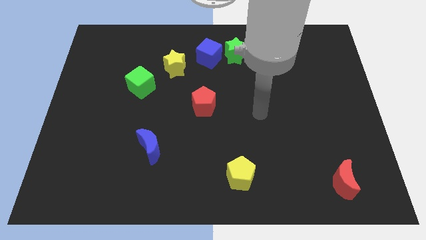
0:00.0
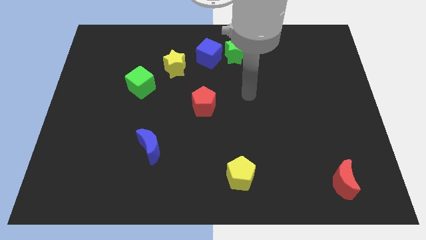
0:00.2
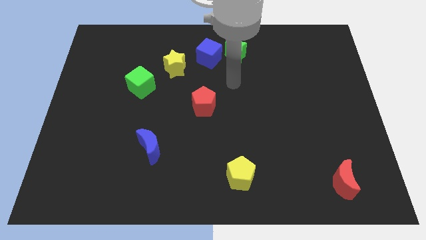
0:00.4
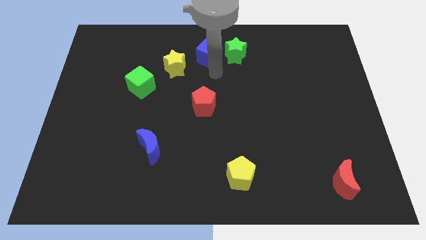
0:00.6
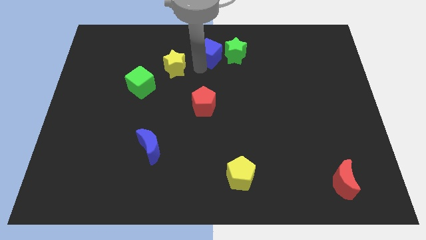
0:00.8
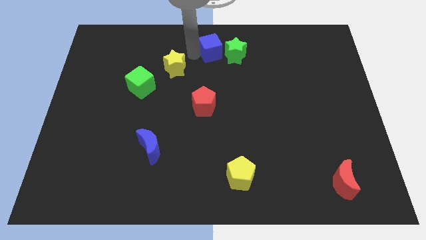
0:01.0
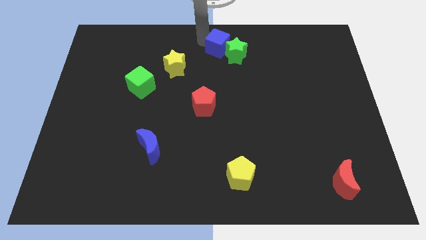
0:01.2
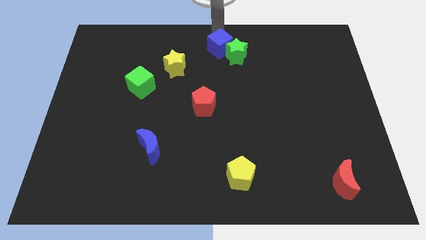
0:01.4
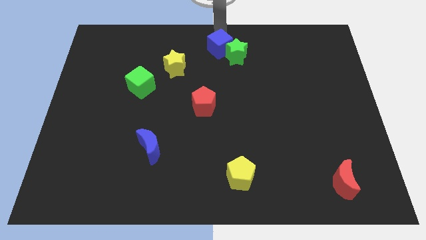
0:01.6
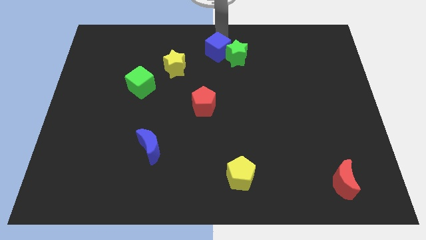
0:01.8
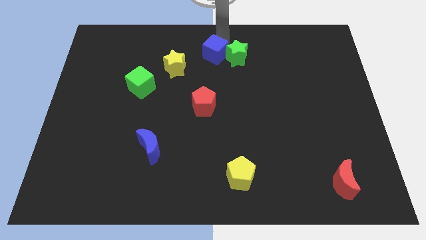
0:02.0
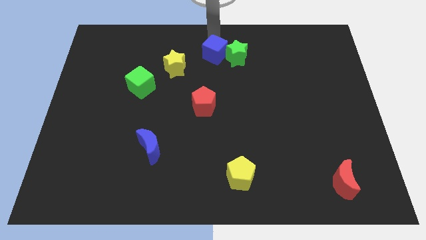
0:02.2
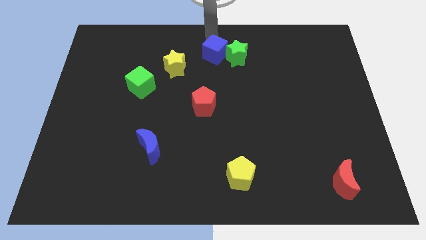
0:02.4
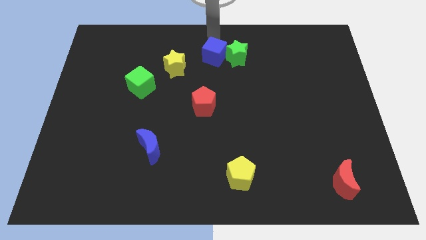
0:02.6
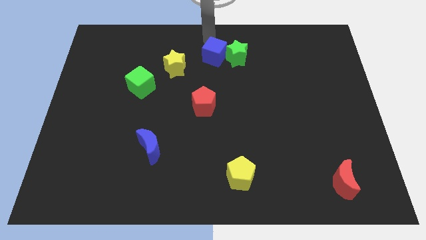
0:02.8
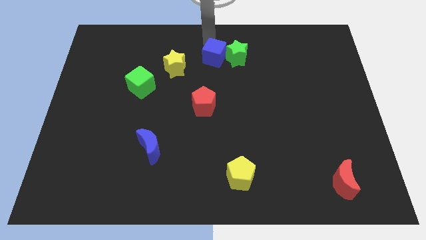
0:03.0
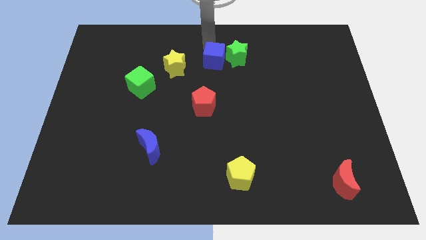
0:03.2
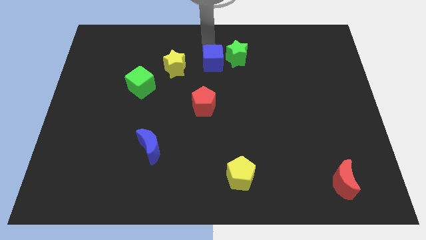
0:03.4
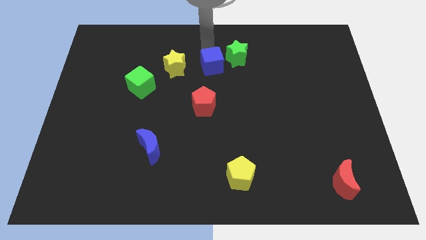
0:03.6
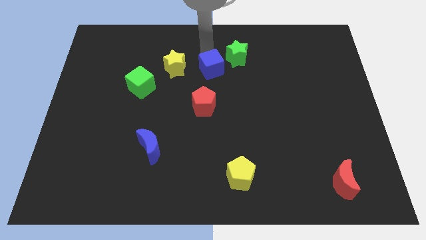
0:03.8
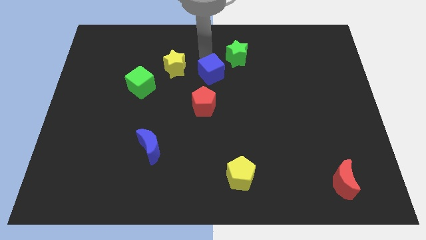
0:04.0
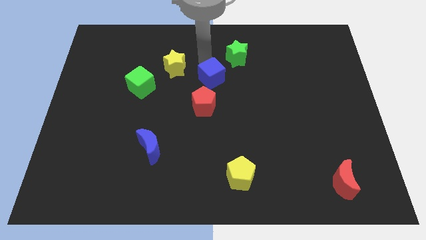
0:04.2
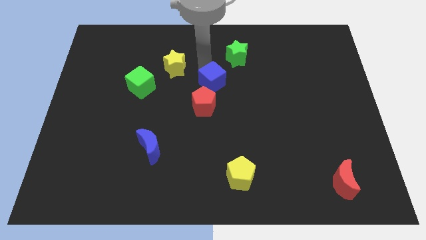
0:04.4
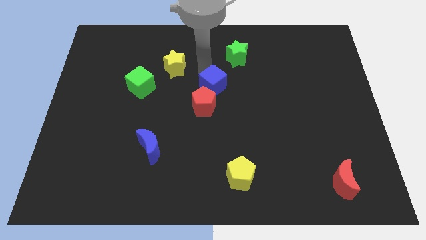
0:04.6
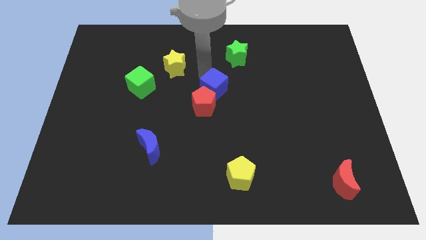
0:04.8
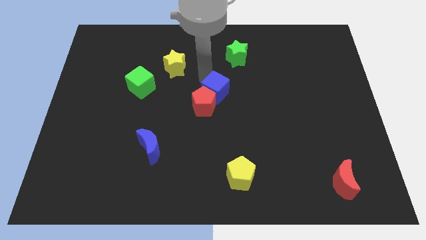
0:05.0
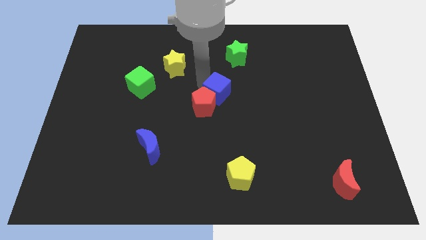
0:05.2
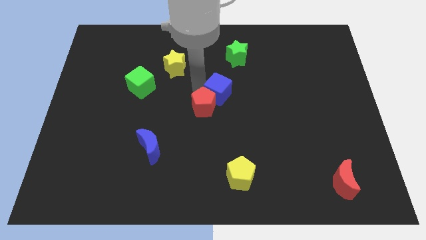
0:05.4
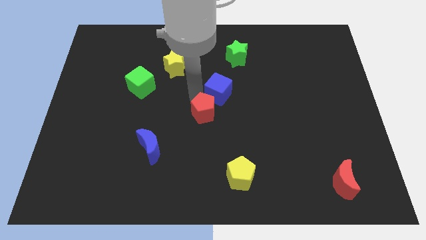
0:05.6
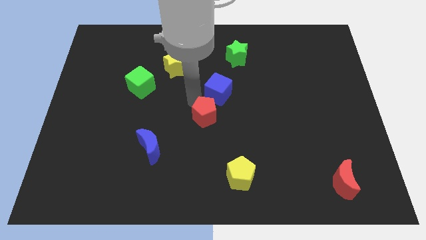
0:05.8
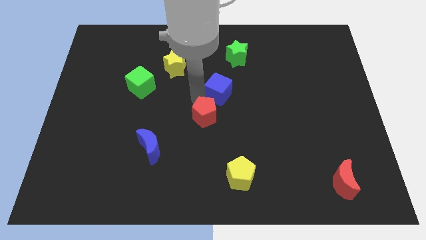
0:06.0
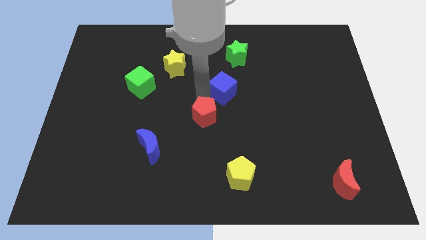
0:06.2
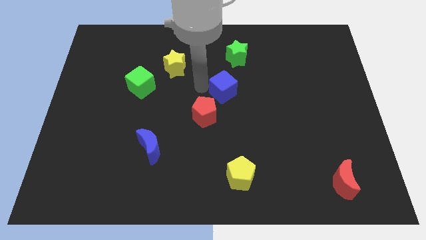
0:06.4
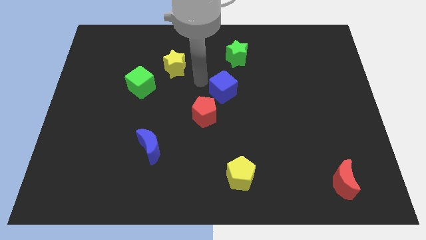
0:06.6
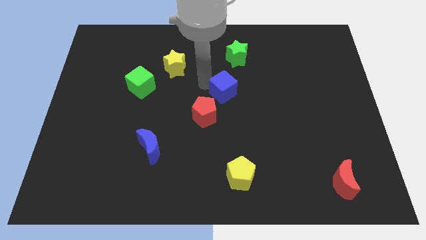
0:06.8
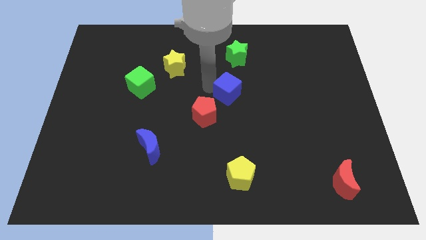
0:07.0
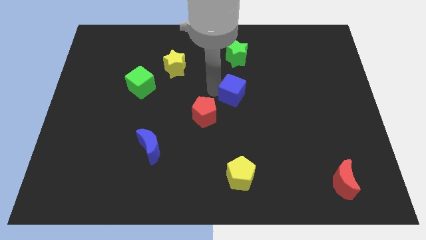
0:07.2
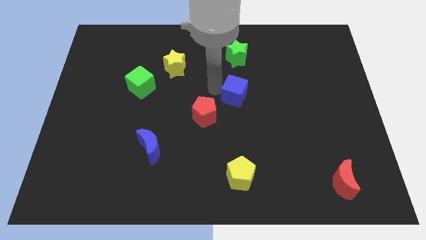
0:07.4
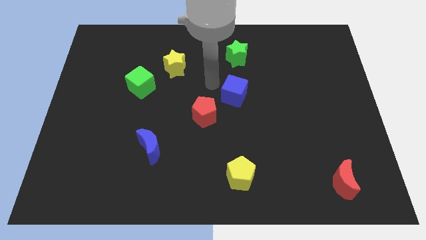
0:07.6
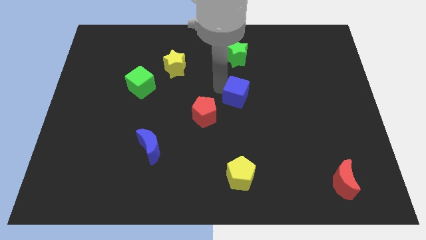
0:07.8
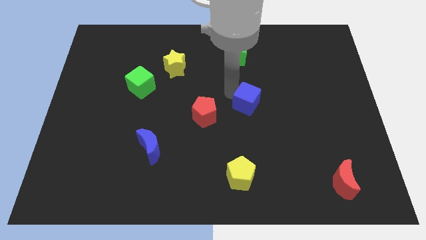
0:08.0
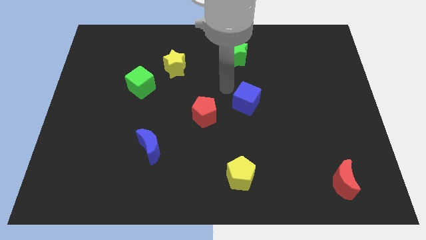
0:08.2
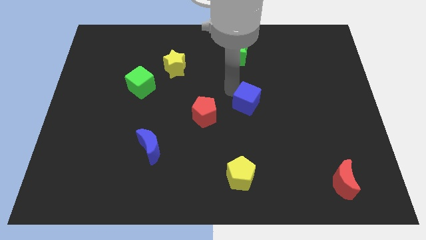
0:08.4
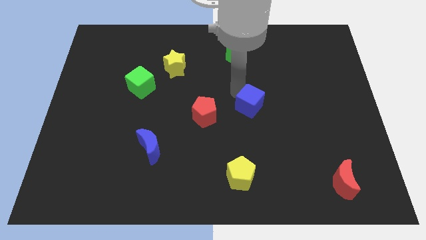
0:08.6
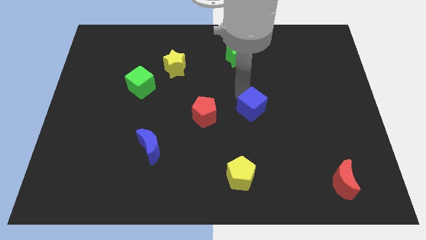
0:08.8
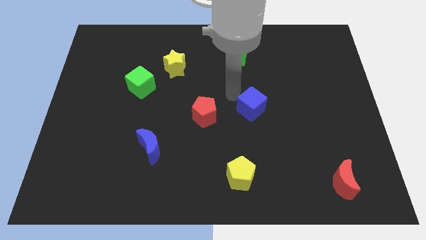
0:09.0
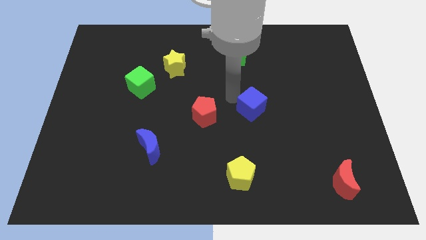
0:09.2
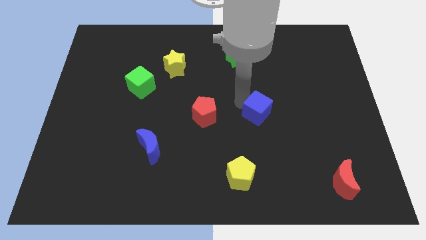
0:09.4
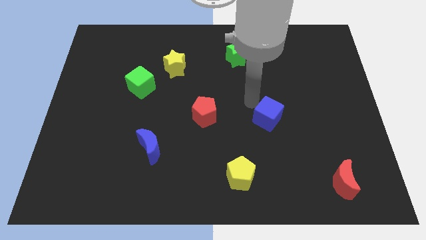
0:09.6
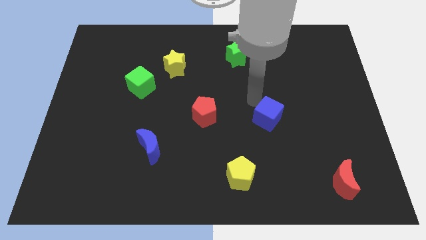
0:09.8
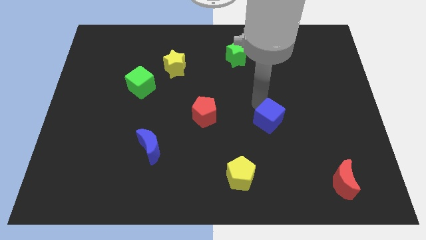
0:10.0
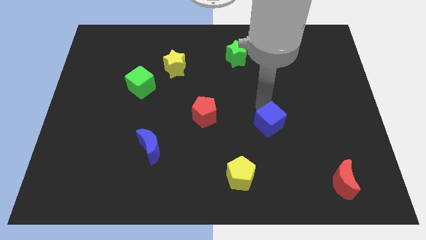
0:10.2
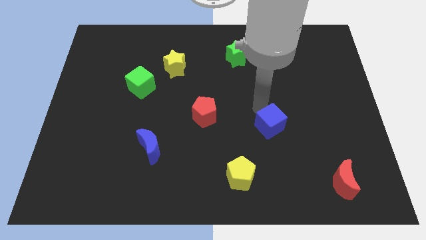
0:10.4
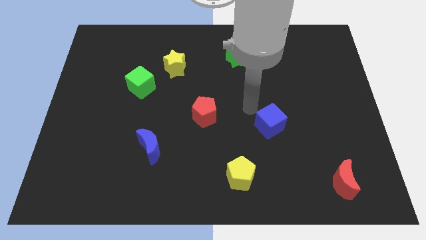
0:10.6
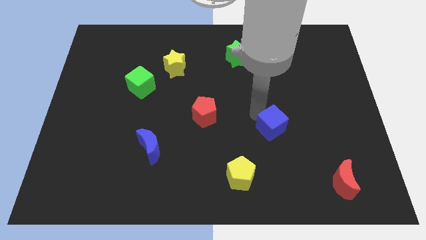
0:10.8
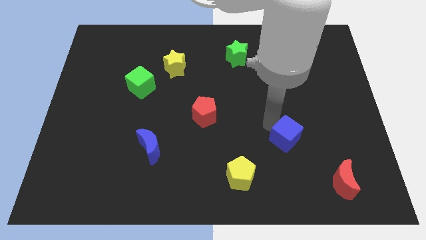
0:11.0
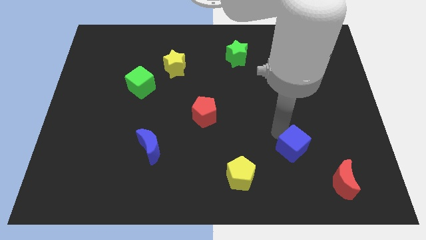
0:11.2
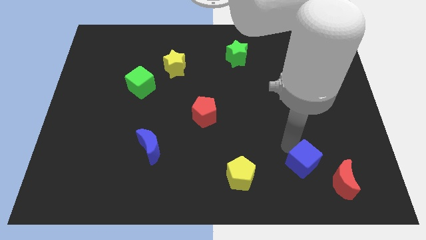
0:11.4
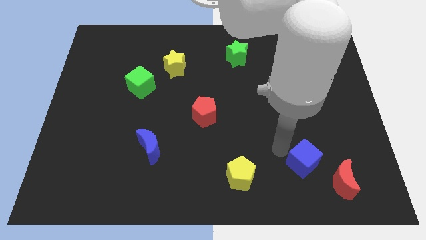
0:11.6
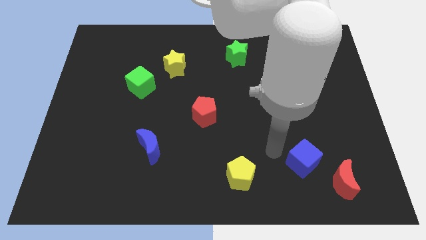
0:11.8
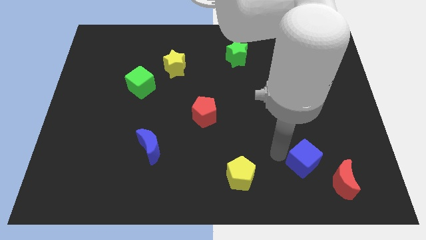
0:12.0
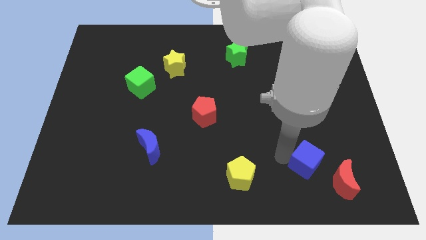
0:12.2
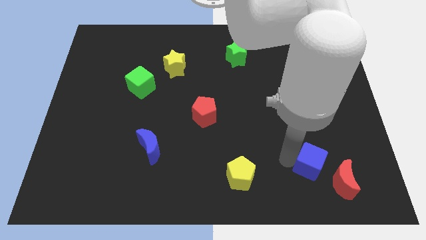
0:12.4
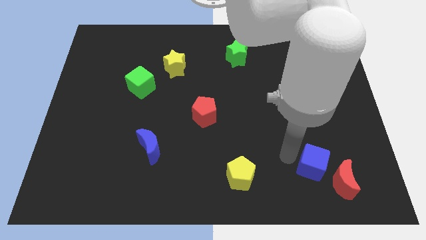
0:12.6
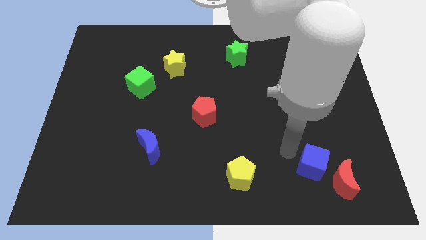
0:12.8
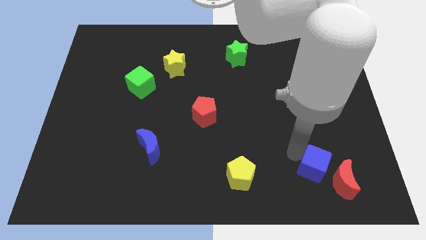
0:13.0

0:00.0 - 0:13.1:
put the blue cube towards the red moon
